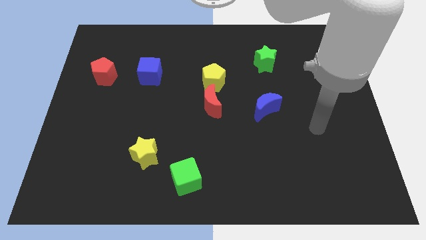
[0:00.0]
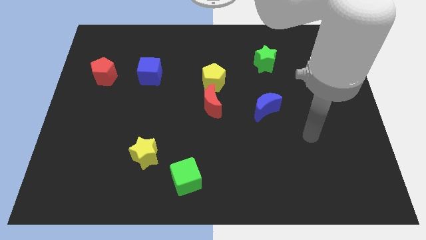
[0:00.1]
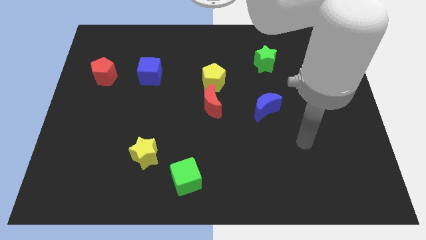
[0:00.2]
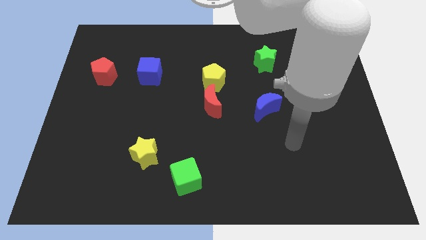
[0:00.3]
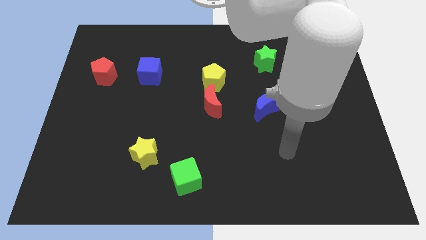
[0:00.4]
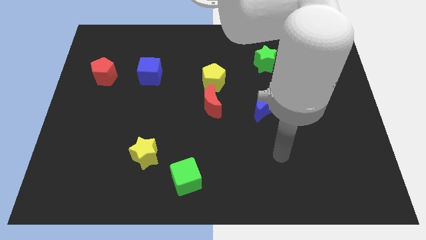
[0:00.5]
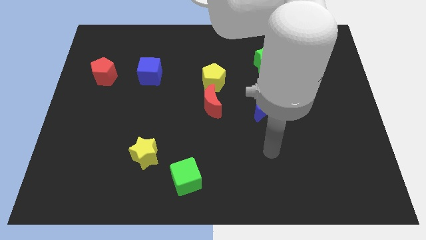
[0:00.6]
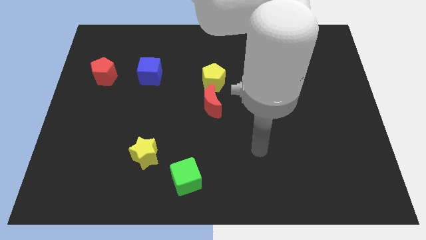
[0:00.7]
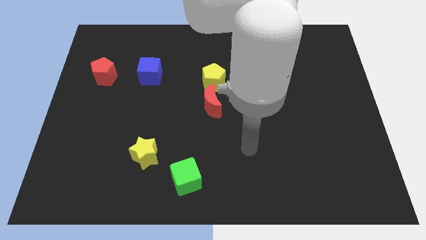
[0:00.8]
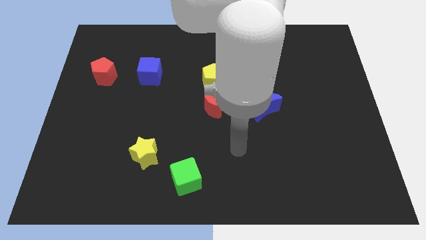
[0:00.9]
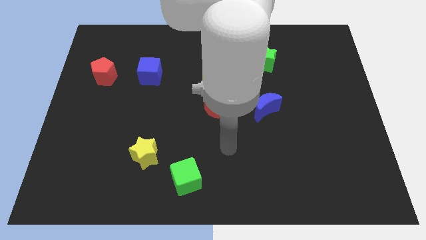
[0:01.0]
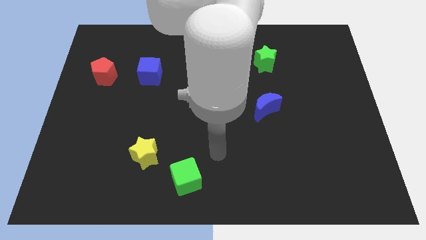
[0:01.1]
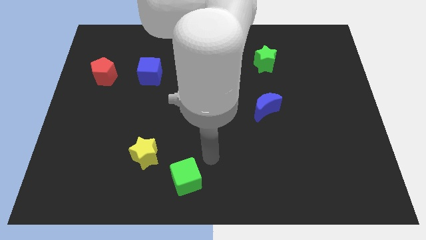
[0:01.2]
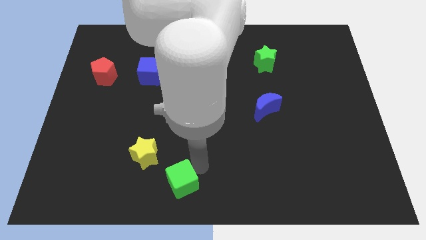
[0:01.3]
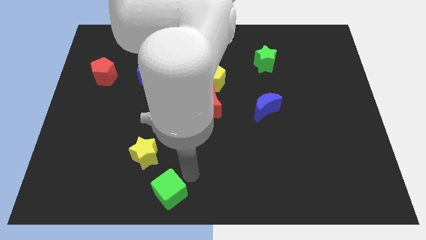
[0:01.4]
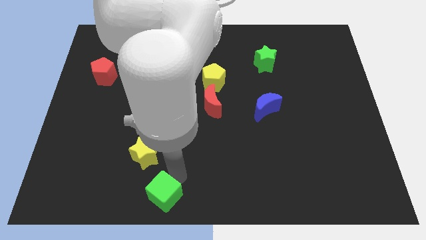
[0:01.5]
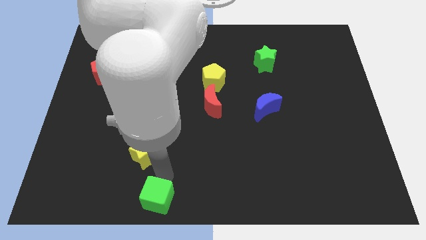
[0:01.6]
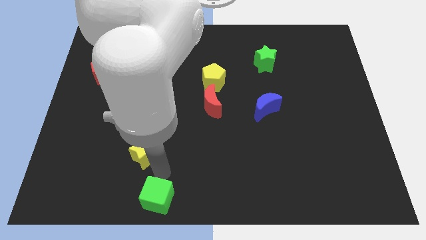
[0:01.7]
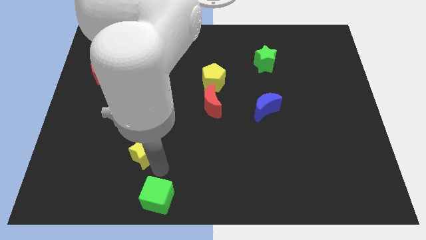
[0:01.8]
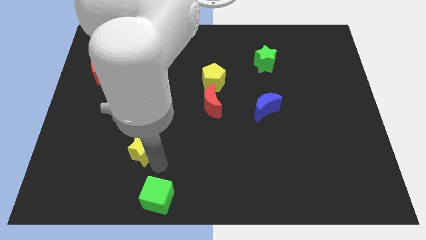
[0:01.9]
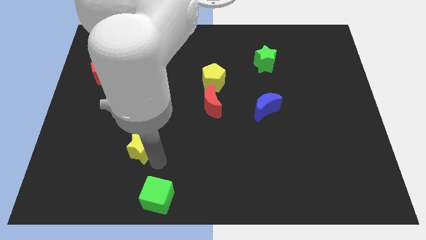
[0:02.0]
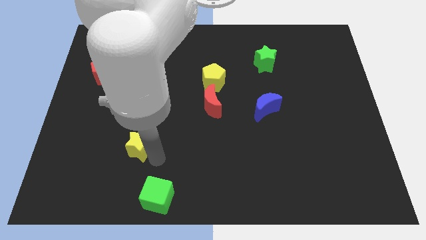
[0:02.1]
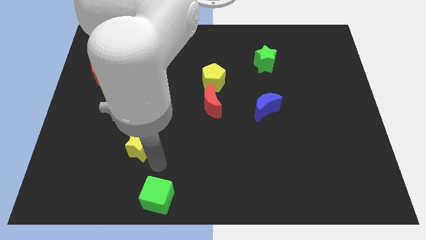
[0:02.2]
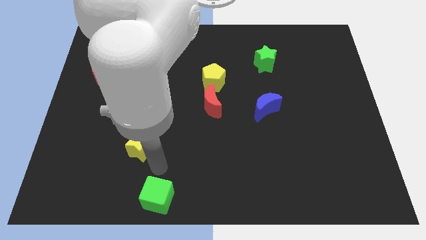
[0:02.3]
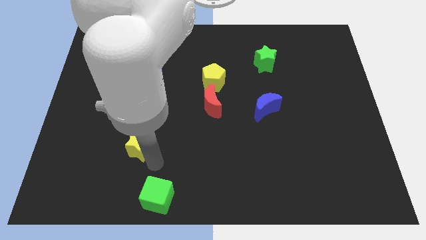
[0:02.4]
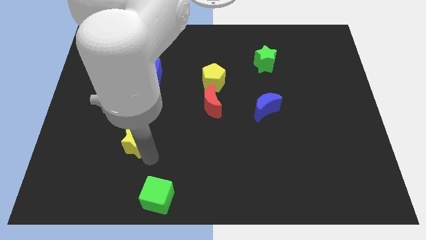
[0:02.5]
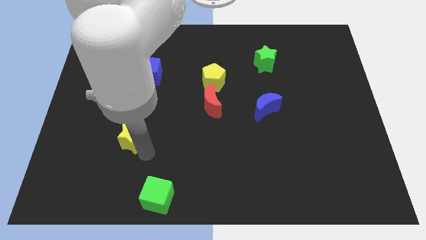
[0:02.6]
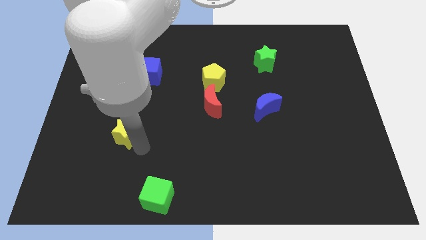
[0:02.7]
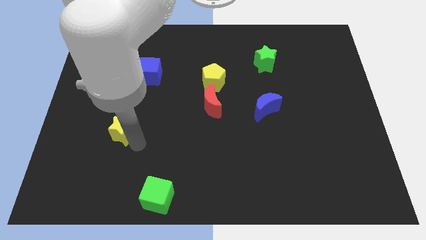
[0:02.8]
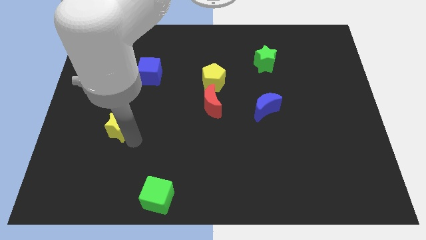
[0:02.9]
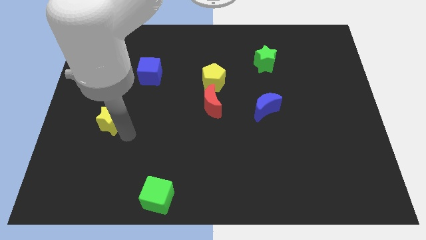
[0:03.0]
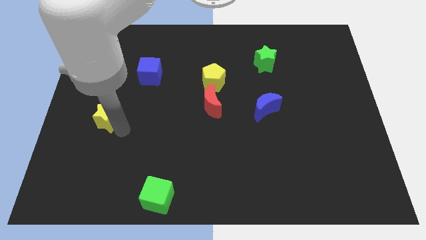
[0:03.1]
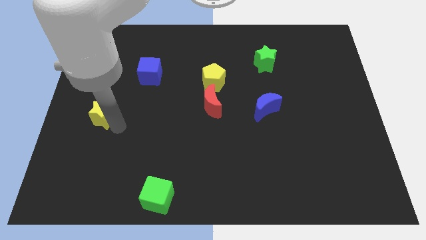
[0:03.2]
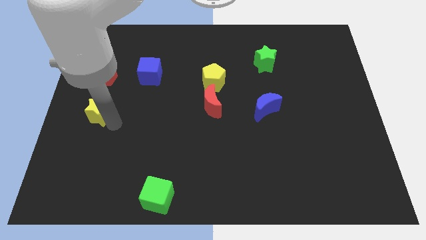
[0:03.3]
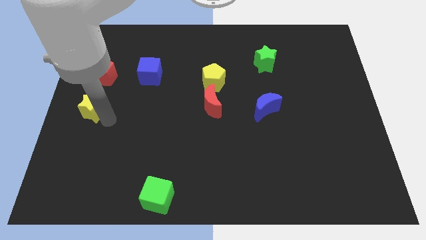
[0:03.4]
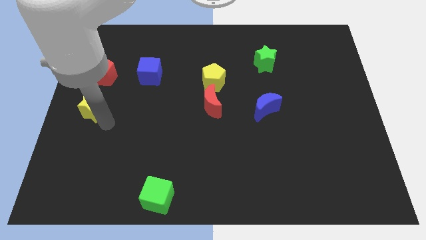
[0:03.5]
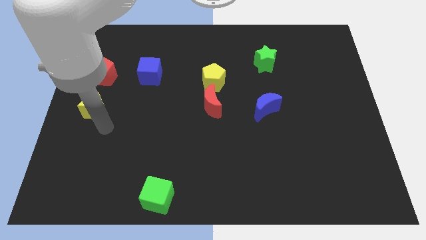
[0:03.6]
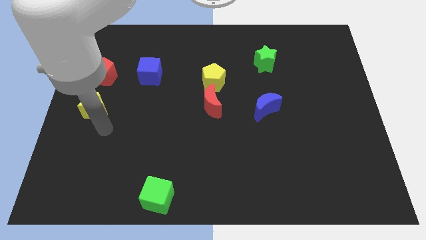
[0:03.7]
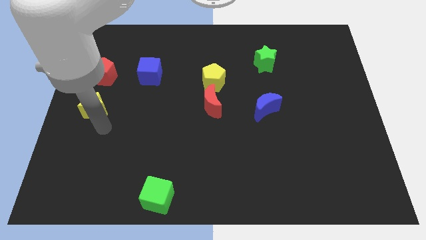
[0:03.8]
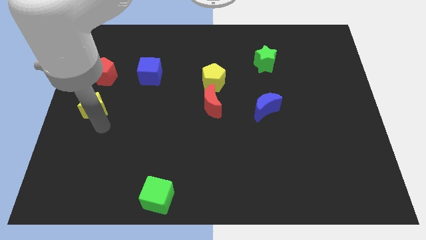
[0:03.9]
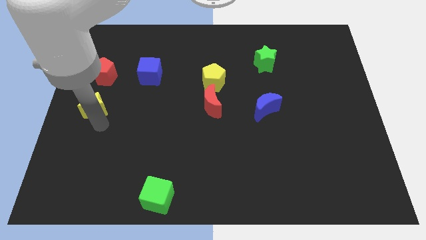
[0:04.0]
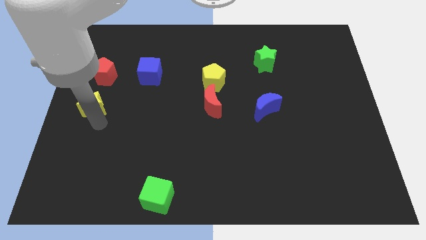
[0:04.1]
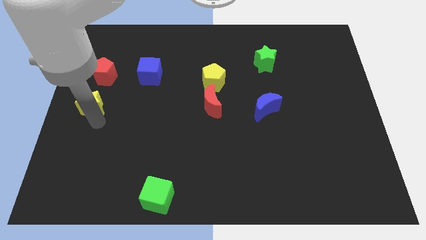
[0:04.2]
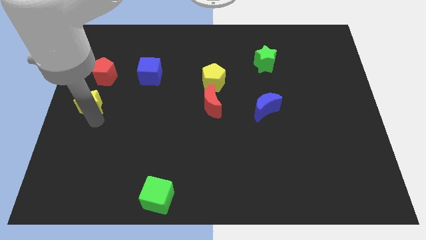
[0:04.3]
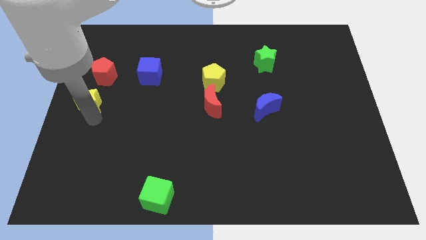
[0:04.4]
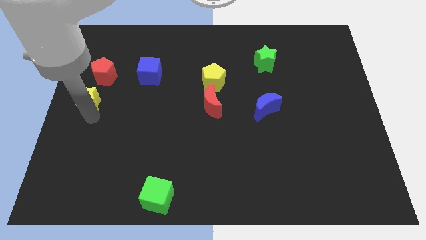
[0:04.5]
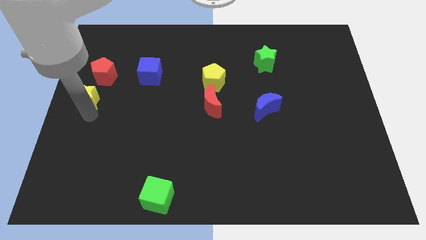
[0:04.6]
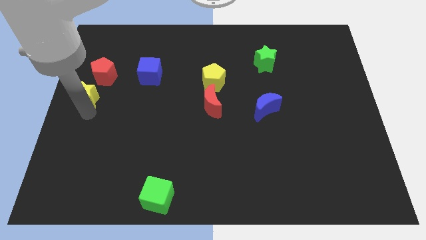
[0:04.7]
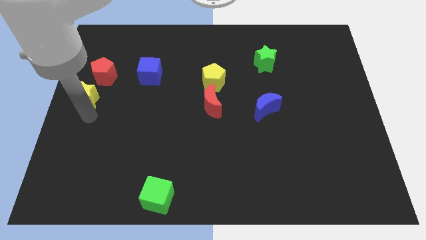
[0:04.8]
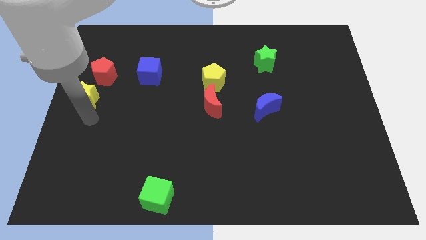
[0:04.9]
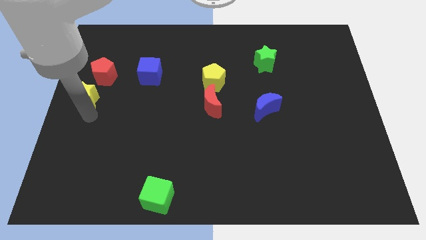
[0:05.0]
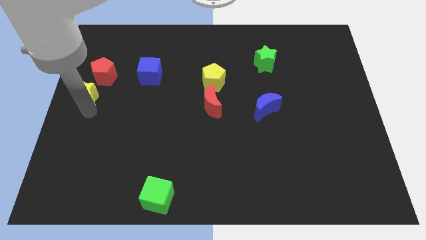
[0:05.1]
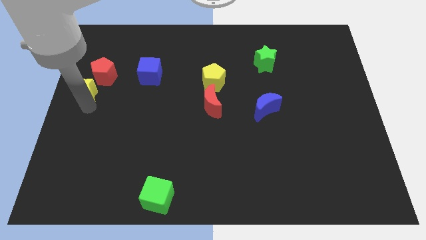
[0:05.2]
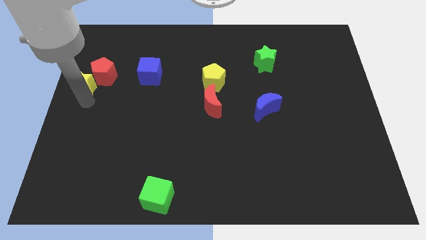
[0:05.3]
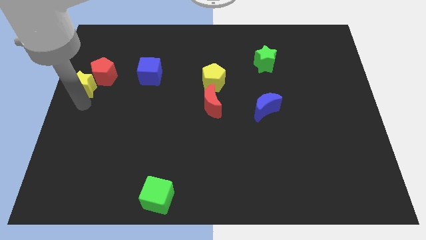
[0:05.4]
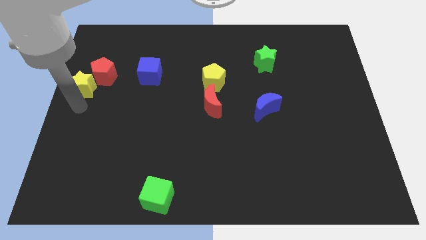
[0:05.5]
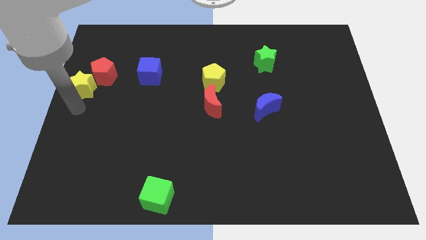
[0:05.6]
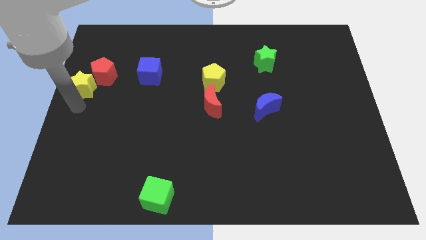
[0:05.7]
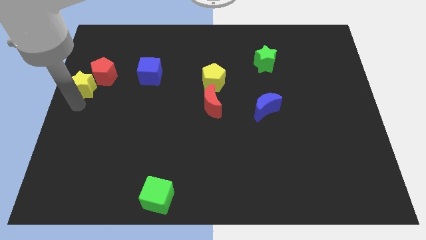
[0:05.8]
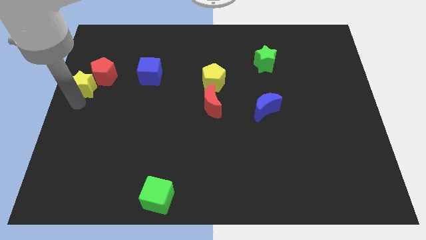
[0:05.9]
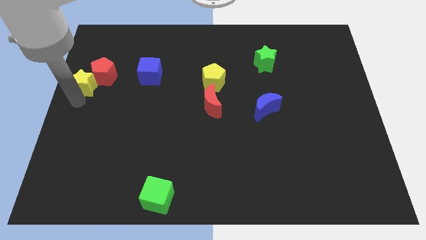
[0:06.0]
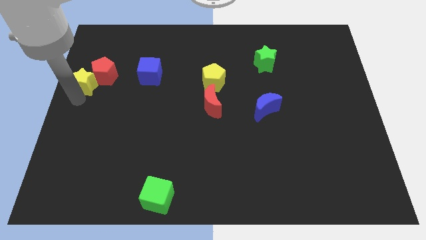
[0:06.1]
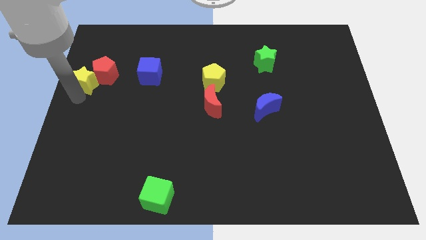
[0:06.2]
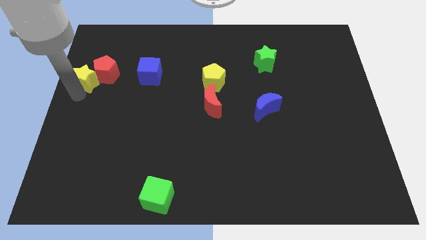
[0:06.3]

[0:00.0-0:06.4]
push the yellow star left of the blue cube
